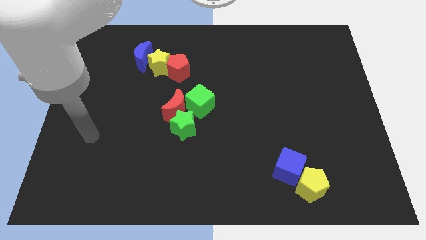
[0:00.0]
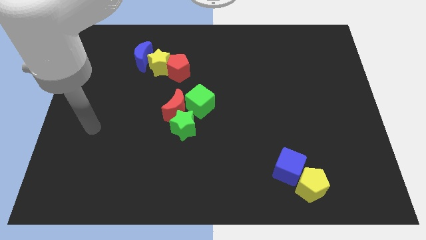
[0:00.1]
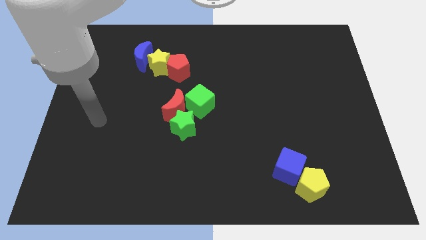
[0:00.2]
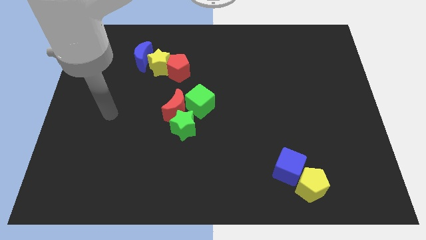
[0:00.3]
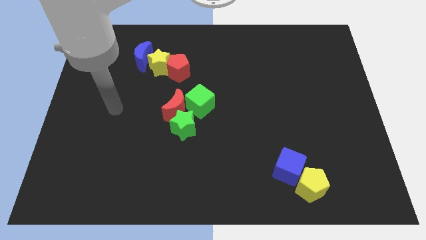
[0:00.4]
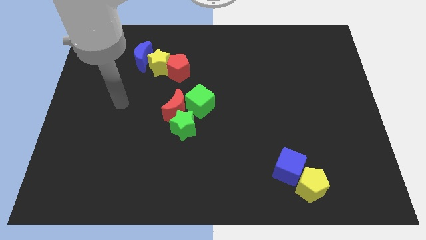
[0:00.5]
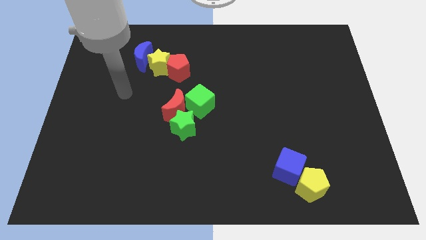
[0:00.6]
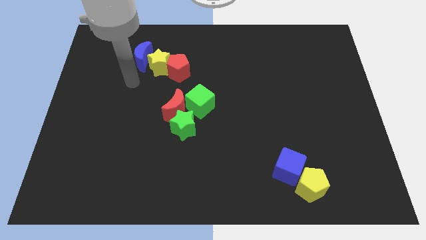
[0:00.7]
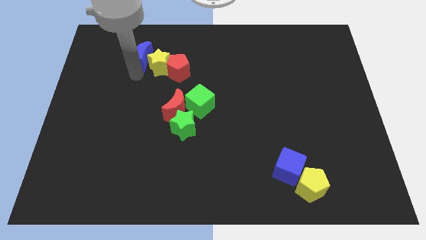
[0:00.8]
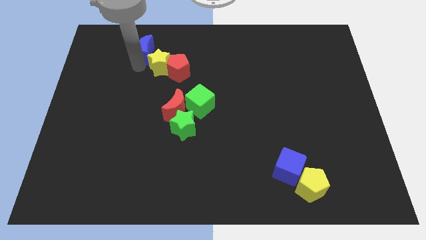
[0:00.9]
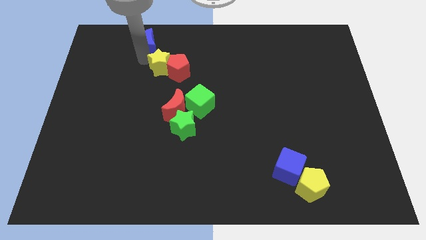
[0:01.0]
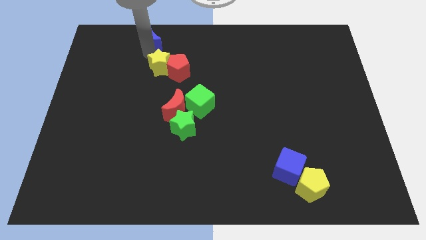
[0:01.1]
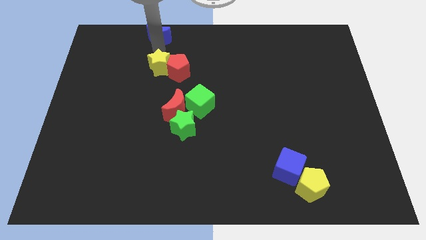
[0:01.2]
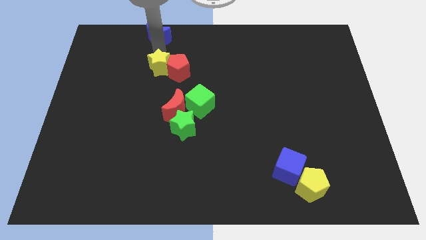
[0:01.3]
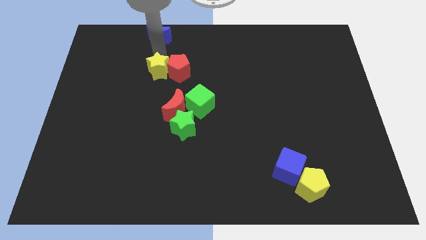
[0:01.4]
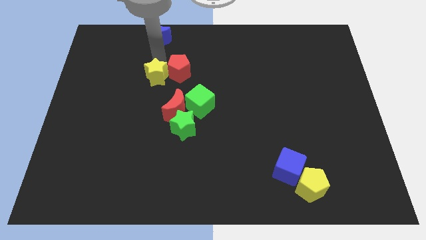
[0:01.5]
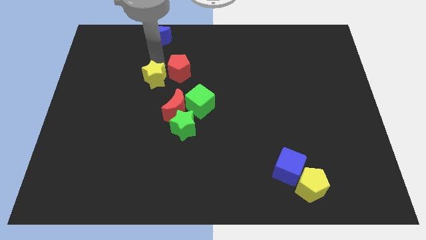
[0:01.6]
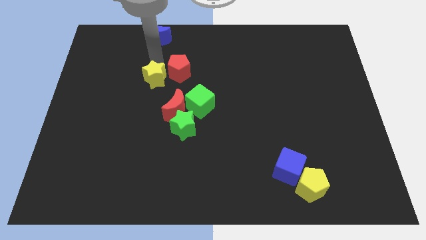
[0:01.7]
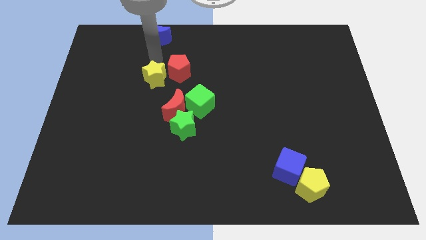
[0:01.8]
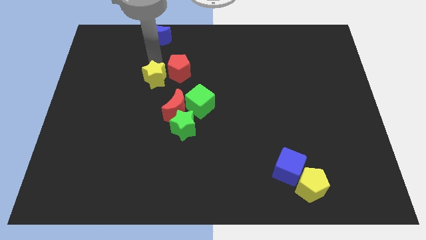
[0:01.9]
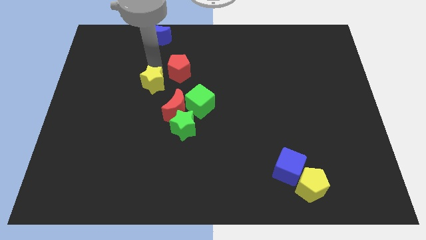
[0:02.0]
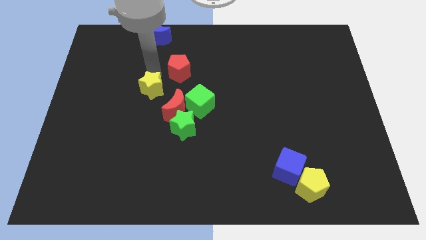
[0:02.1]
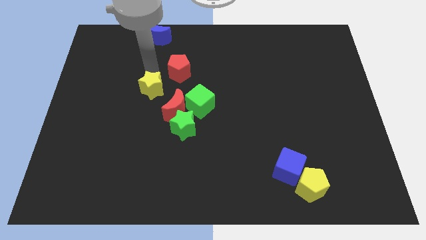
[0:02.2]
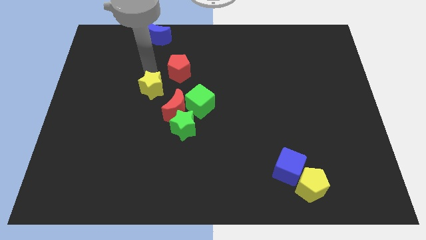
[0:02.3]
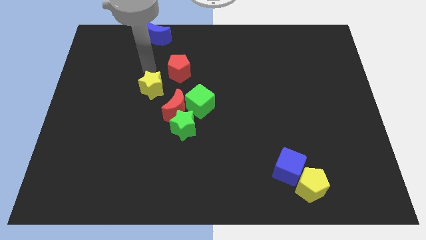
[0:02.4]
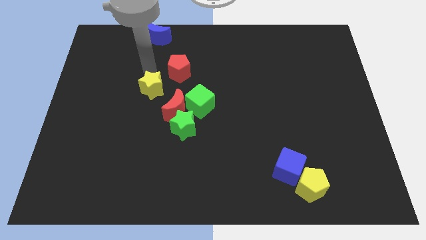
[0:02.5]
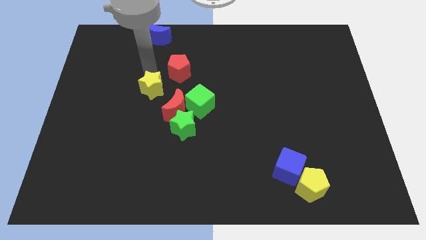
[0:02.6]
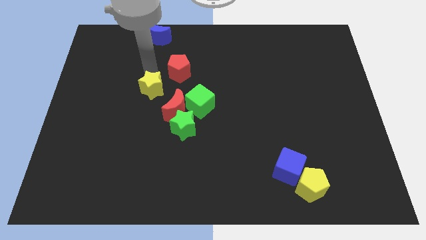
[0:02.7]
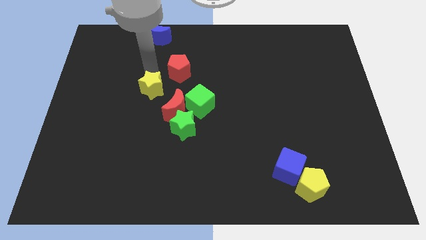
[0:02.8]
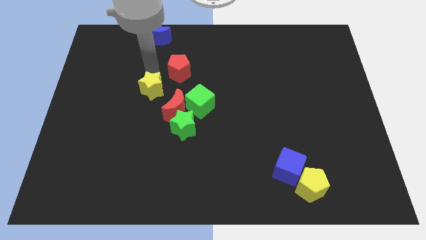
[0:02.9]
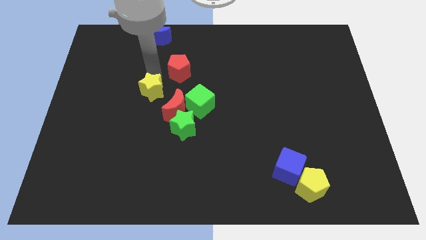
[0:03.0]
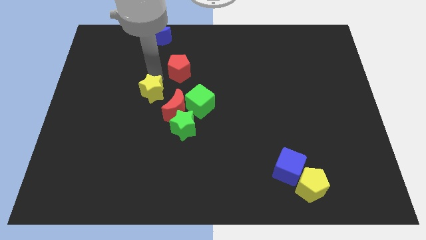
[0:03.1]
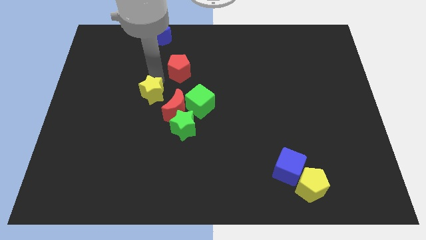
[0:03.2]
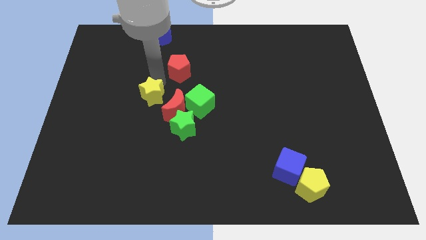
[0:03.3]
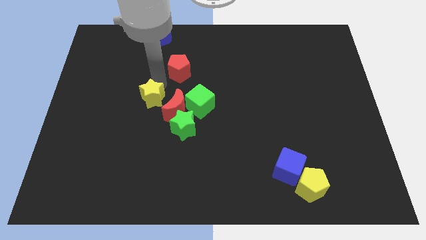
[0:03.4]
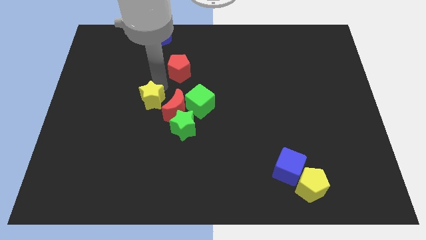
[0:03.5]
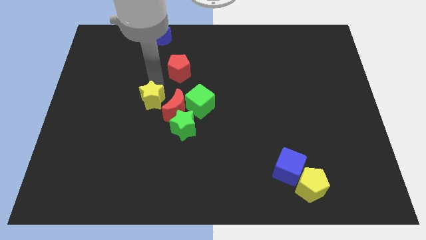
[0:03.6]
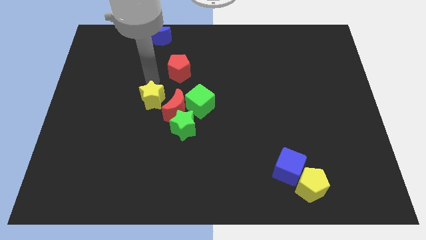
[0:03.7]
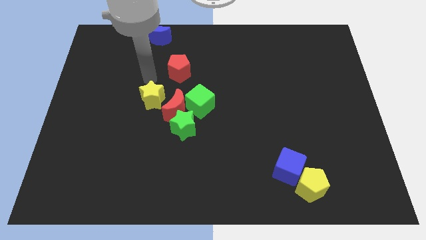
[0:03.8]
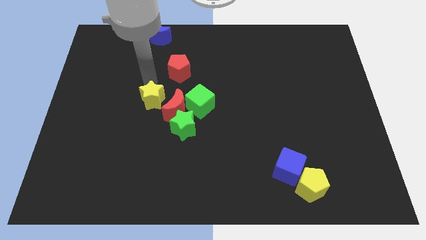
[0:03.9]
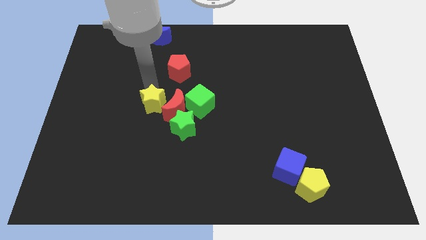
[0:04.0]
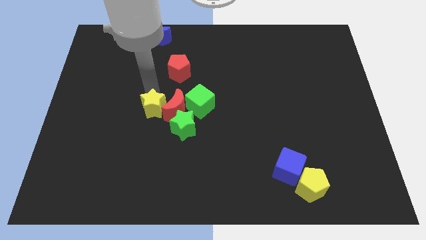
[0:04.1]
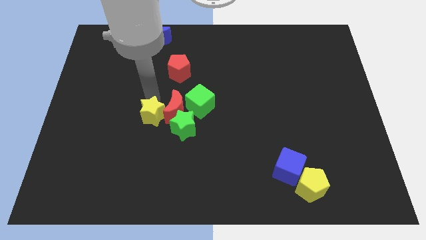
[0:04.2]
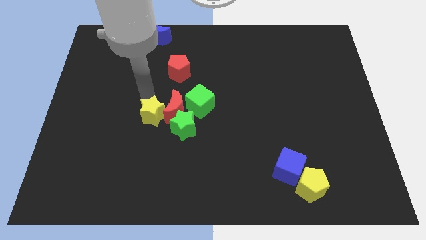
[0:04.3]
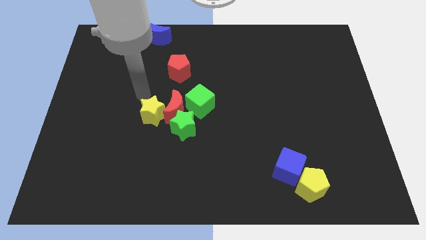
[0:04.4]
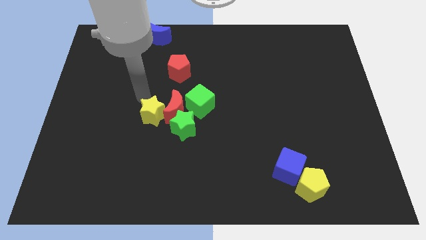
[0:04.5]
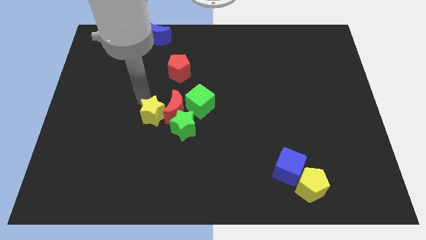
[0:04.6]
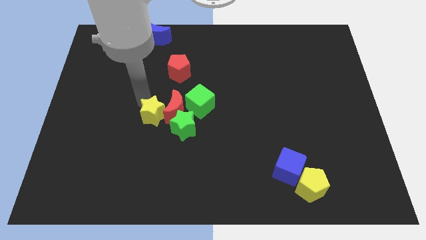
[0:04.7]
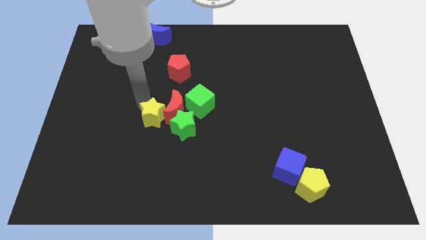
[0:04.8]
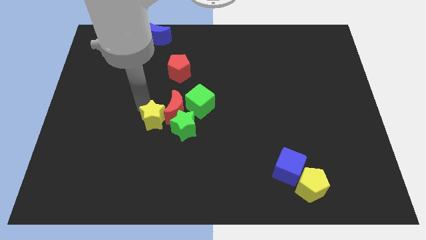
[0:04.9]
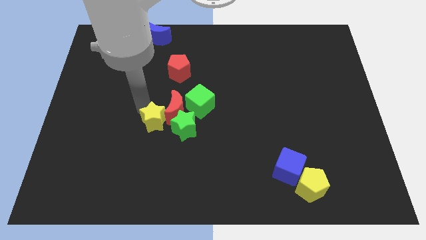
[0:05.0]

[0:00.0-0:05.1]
push the yellow star to the bottom left of the green cube

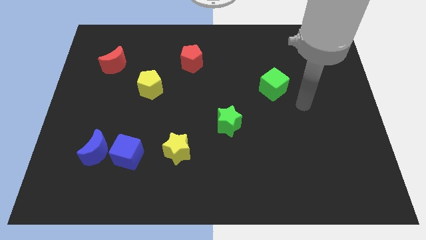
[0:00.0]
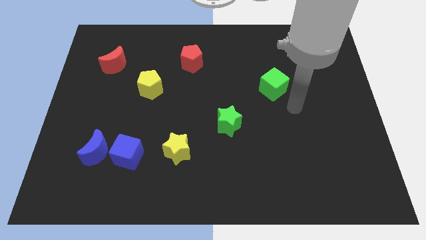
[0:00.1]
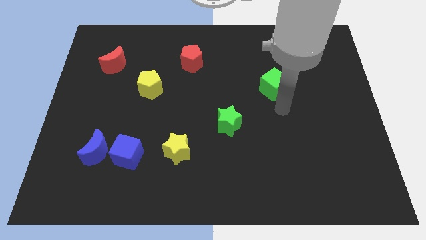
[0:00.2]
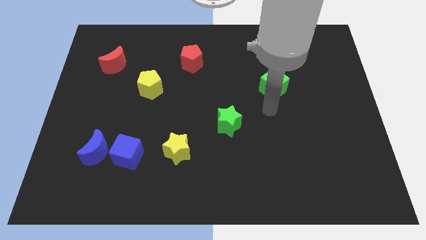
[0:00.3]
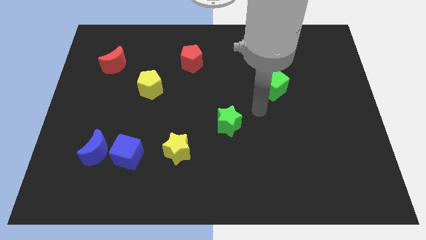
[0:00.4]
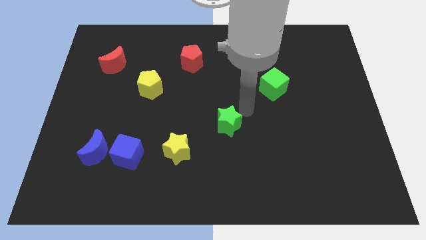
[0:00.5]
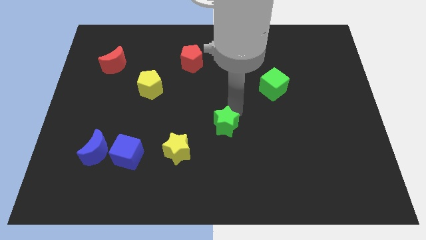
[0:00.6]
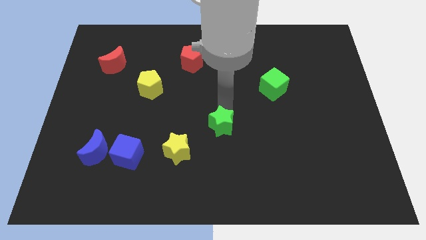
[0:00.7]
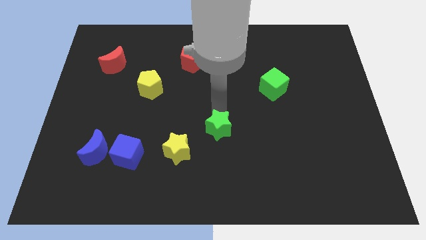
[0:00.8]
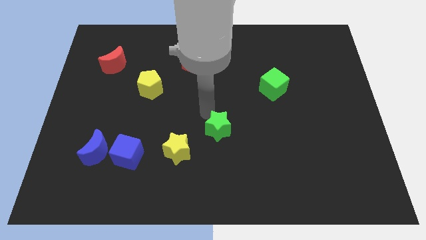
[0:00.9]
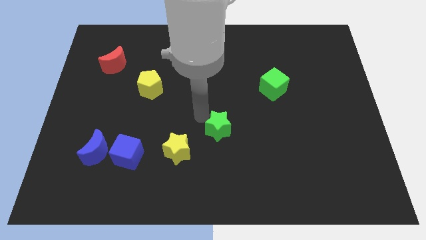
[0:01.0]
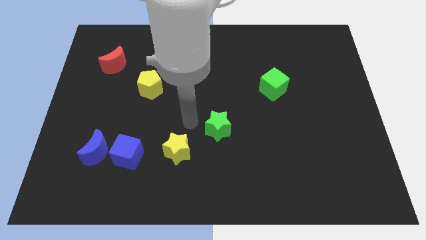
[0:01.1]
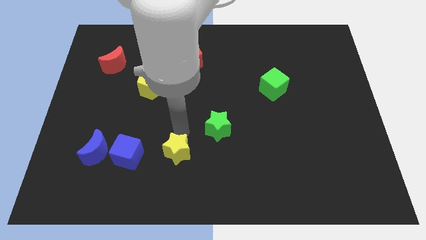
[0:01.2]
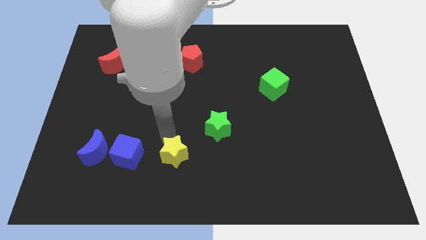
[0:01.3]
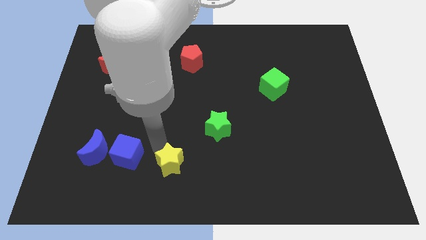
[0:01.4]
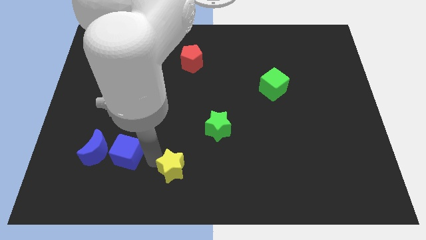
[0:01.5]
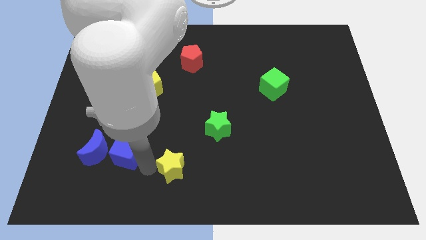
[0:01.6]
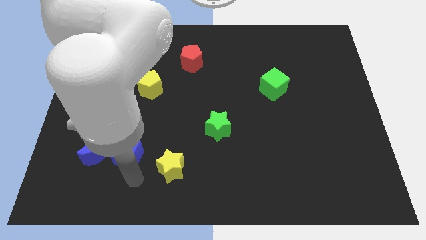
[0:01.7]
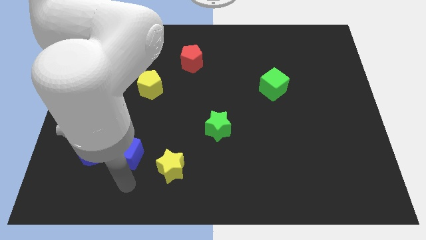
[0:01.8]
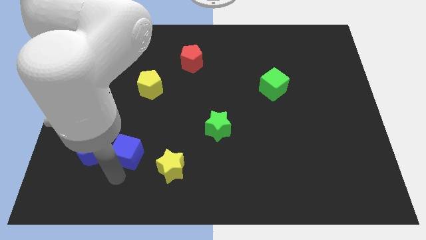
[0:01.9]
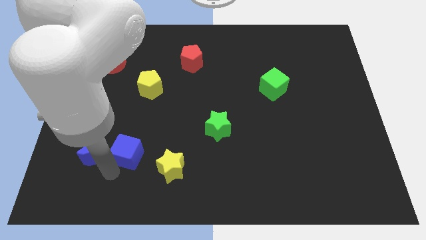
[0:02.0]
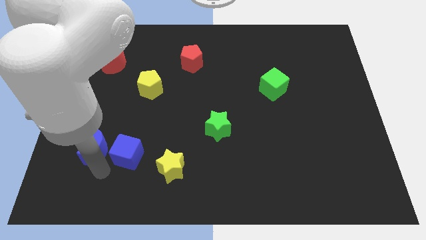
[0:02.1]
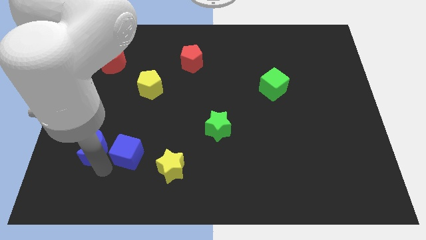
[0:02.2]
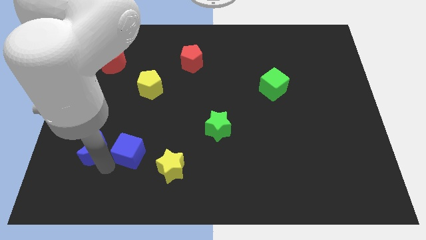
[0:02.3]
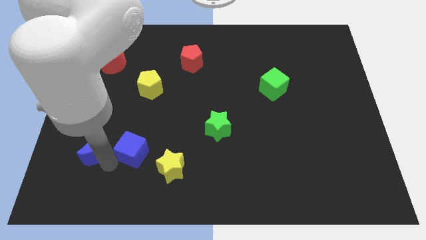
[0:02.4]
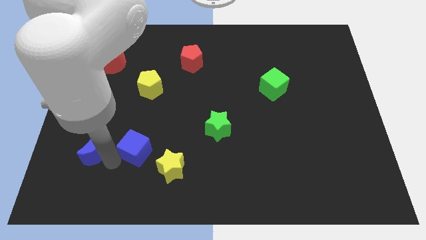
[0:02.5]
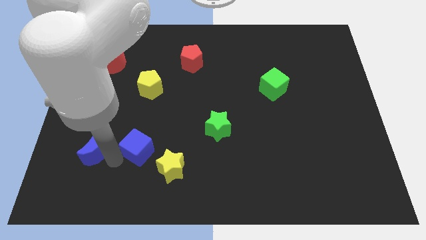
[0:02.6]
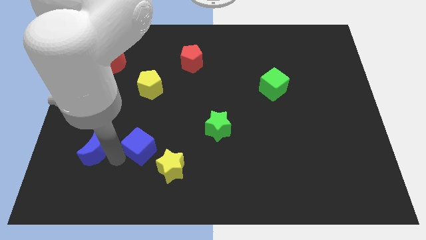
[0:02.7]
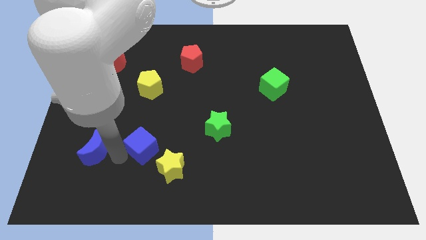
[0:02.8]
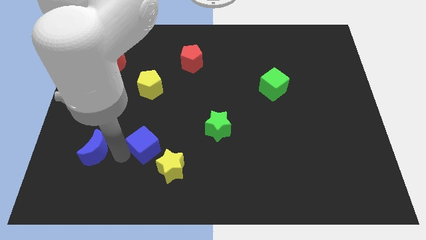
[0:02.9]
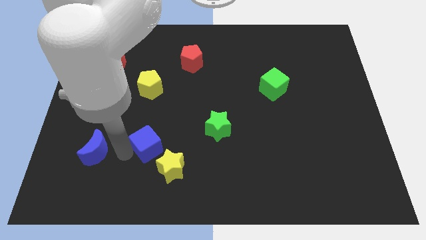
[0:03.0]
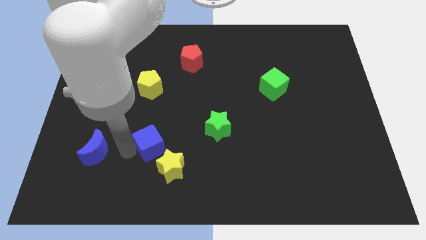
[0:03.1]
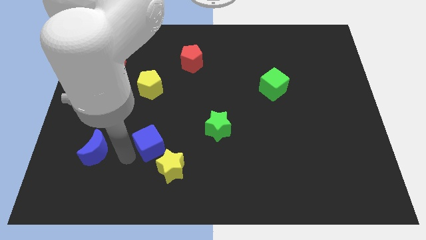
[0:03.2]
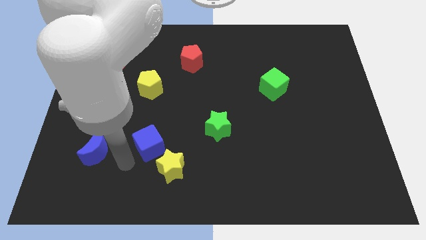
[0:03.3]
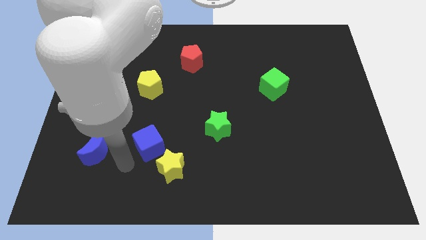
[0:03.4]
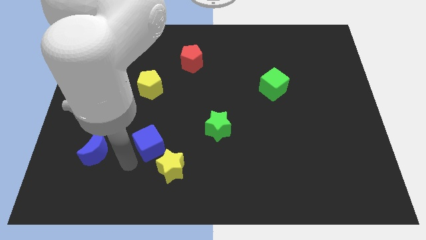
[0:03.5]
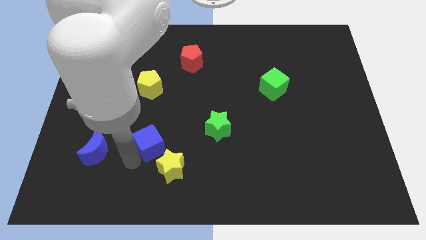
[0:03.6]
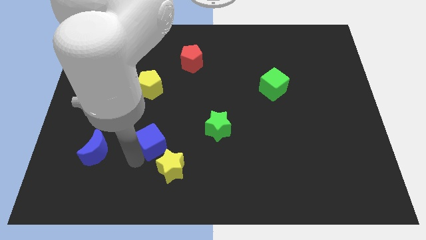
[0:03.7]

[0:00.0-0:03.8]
slide the blue cube to the left side of the green star
